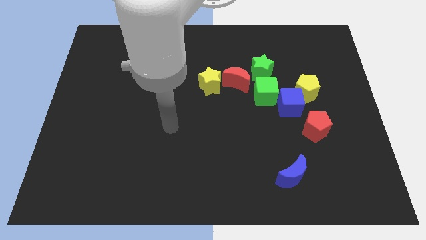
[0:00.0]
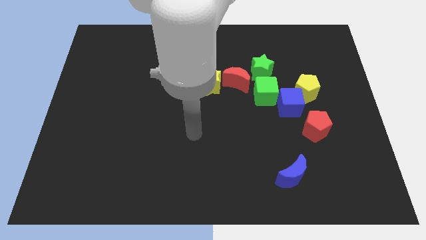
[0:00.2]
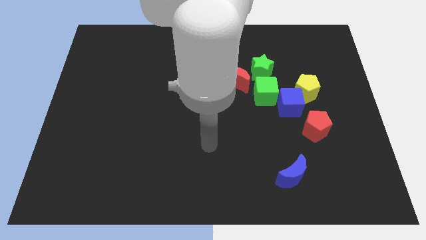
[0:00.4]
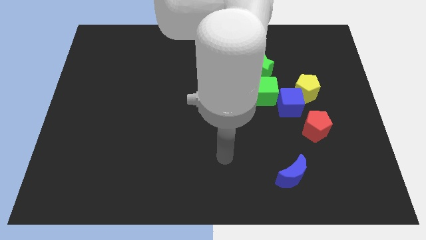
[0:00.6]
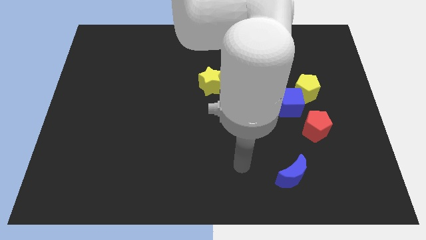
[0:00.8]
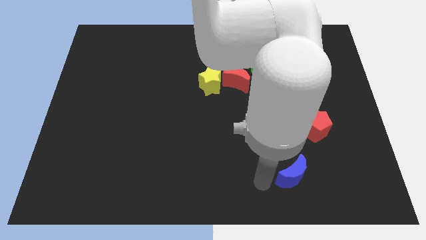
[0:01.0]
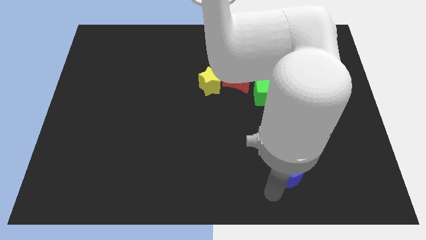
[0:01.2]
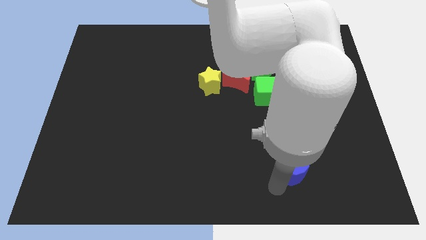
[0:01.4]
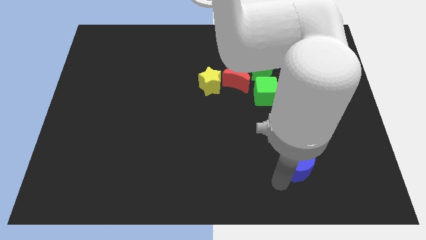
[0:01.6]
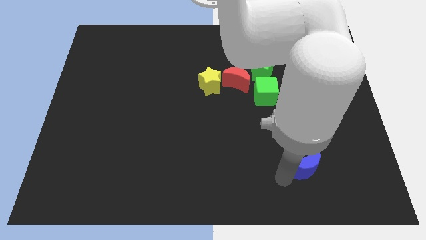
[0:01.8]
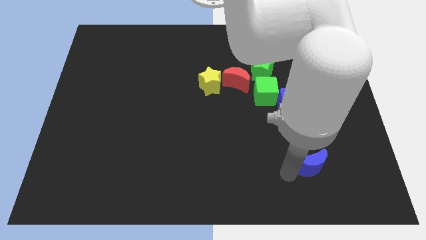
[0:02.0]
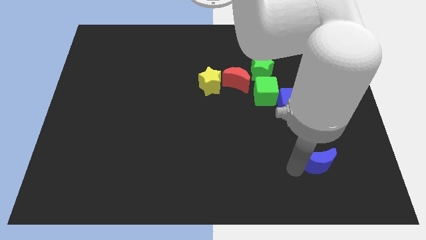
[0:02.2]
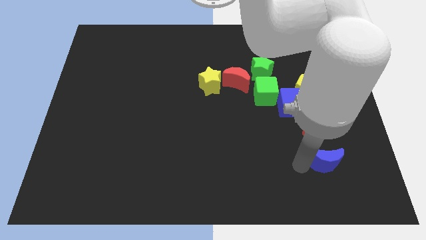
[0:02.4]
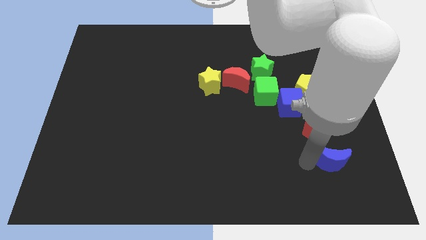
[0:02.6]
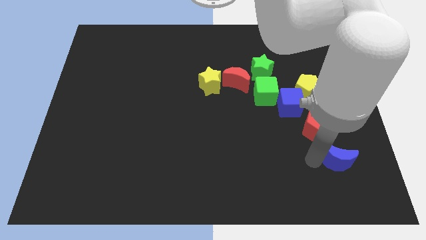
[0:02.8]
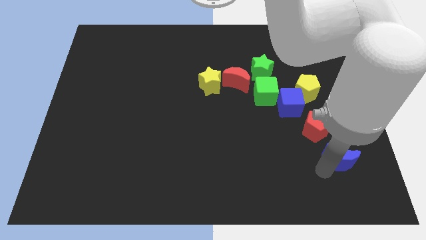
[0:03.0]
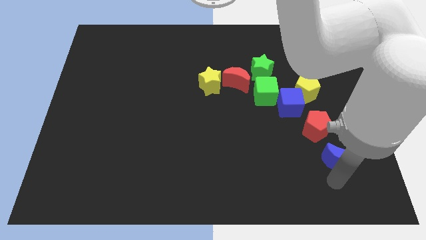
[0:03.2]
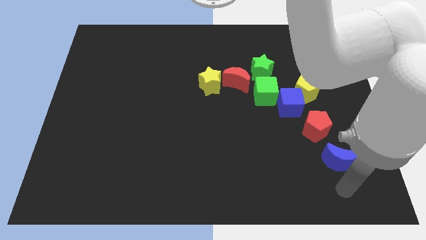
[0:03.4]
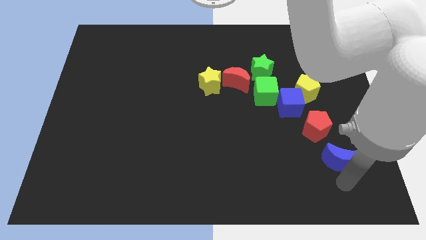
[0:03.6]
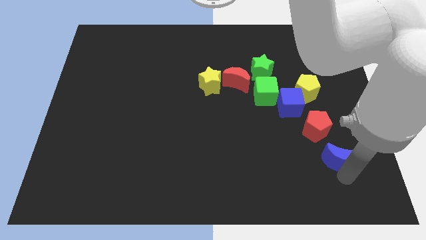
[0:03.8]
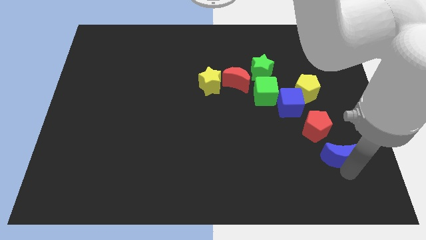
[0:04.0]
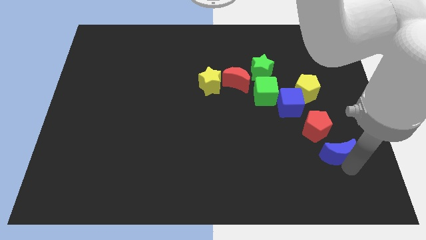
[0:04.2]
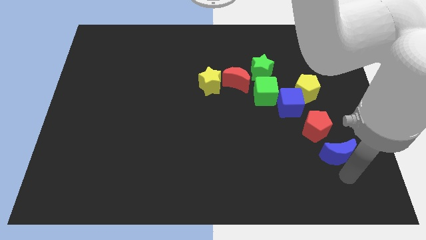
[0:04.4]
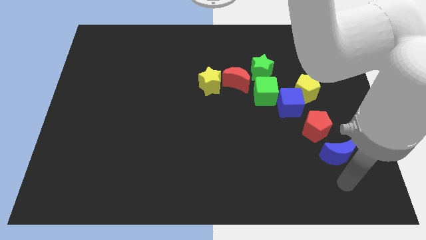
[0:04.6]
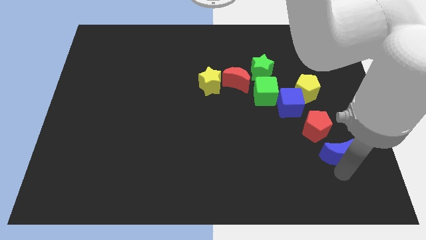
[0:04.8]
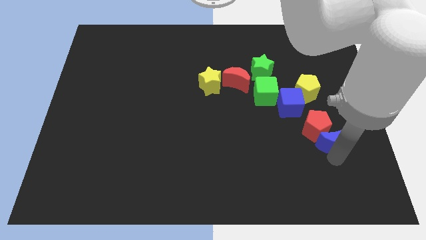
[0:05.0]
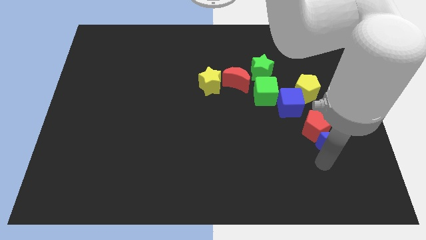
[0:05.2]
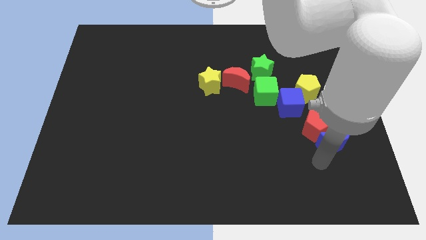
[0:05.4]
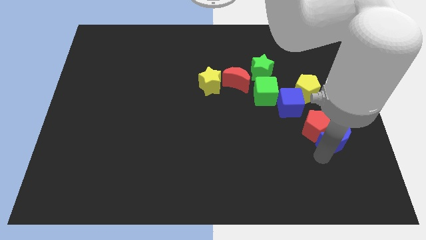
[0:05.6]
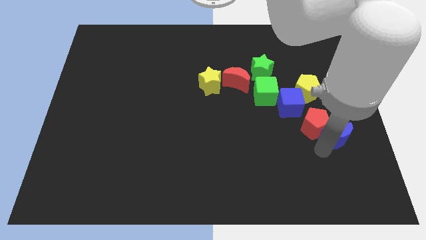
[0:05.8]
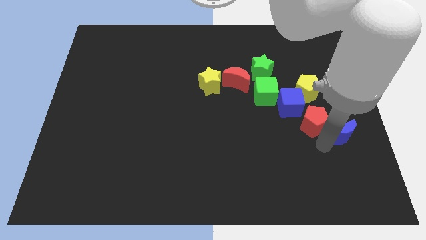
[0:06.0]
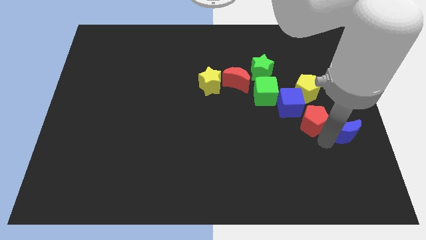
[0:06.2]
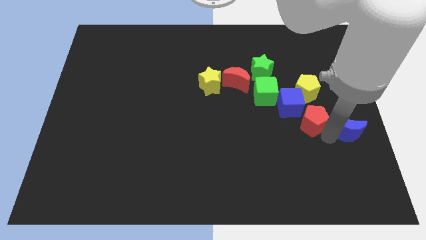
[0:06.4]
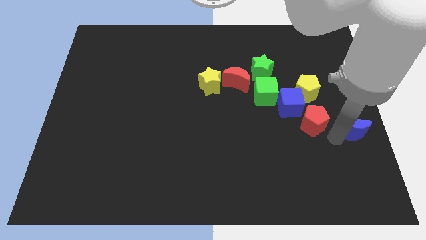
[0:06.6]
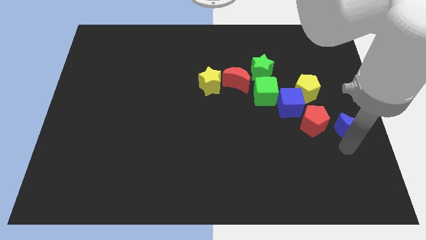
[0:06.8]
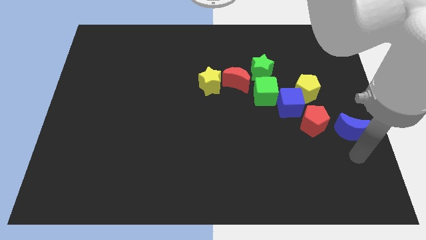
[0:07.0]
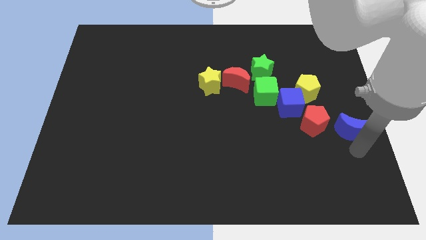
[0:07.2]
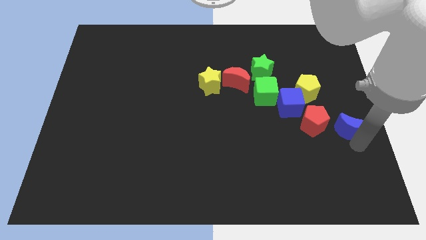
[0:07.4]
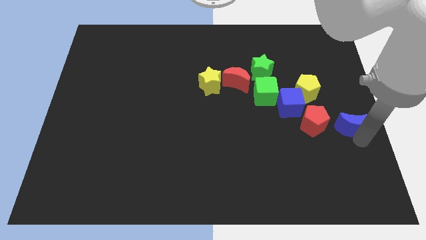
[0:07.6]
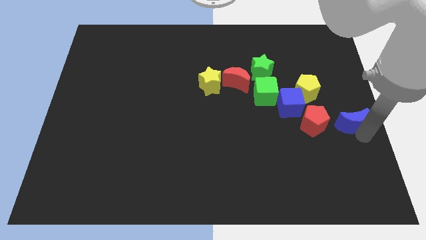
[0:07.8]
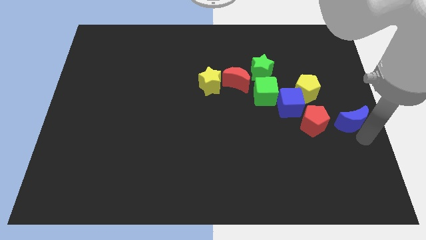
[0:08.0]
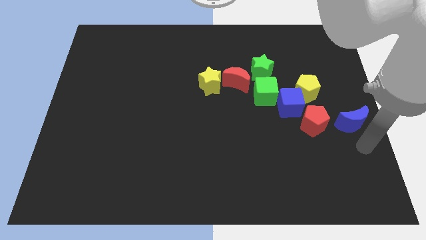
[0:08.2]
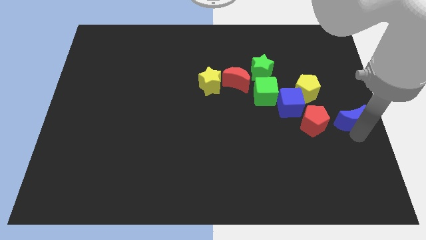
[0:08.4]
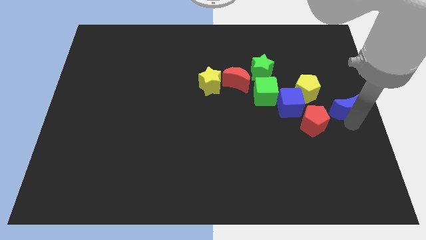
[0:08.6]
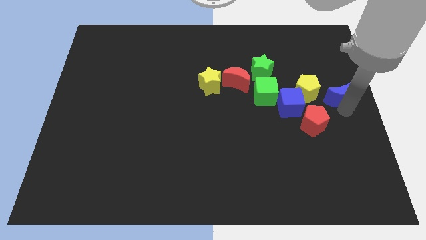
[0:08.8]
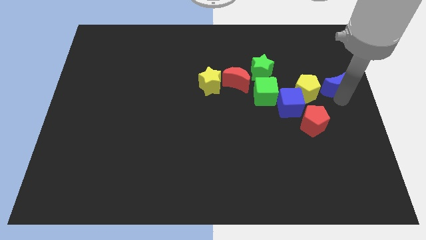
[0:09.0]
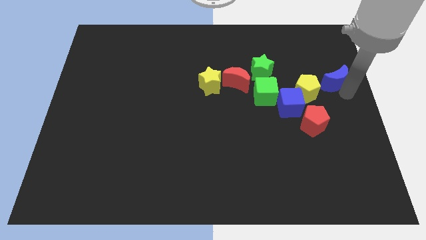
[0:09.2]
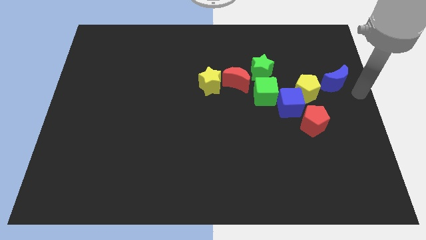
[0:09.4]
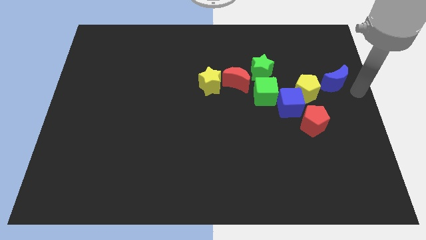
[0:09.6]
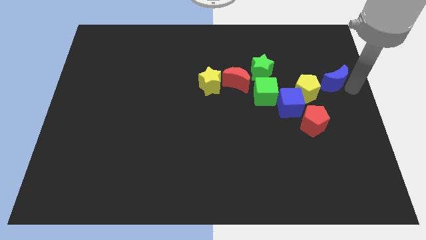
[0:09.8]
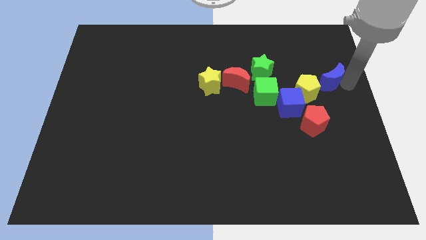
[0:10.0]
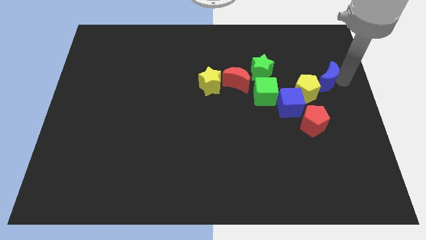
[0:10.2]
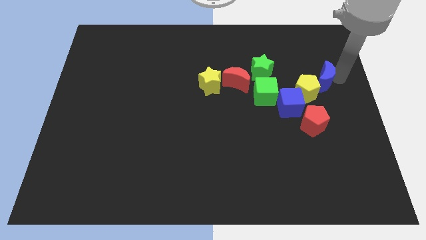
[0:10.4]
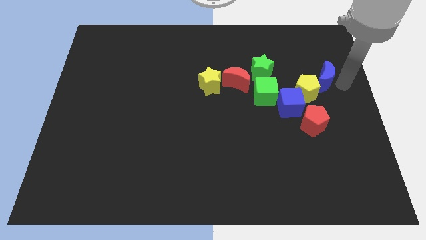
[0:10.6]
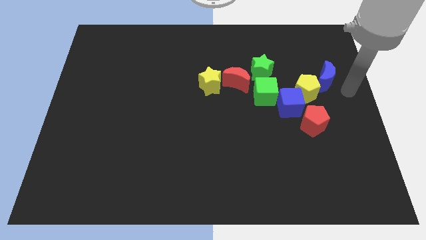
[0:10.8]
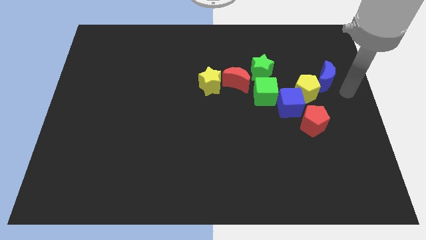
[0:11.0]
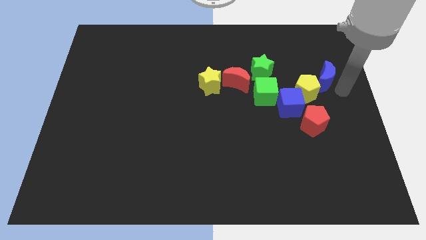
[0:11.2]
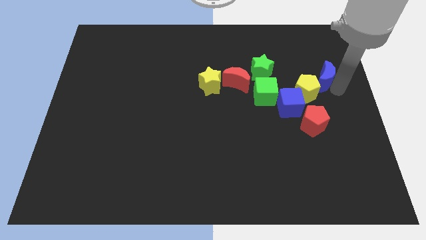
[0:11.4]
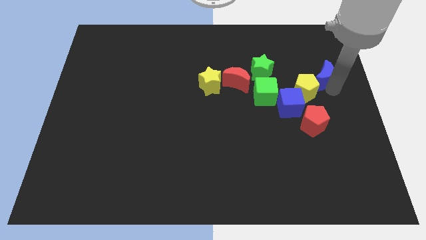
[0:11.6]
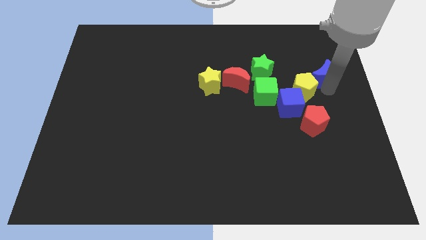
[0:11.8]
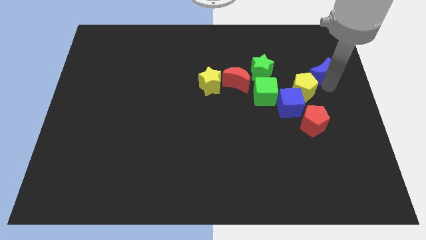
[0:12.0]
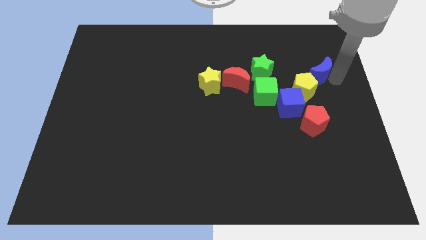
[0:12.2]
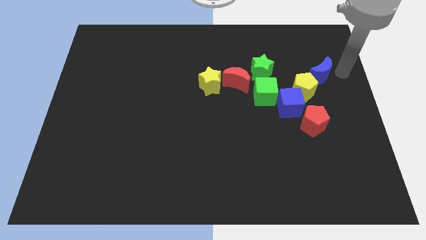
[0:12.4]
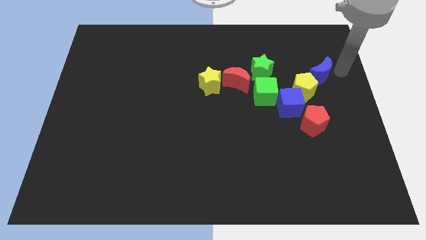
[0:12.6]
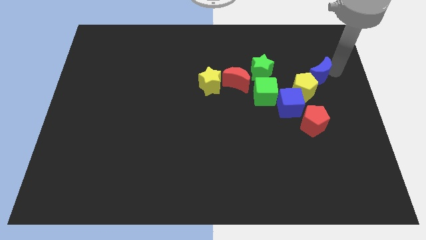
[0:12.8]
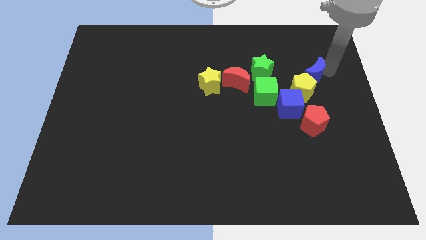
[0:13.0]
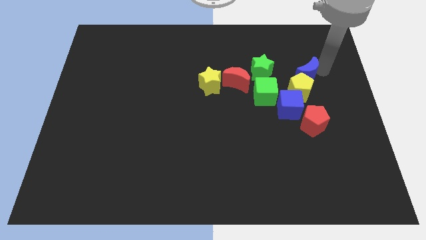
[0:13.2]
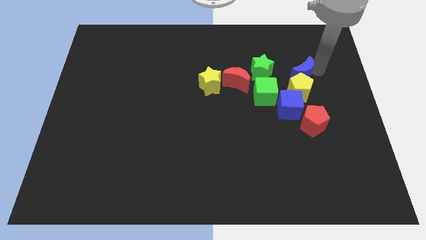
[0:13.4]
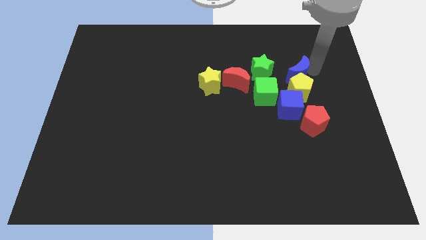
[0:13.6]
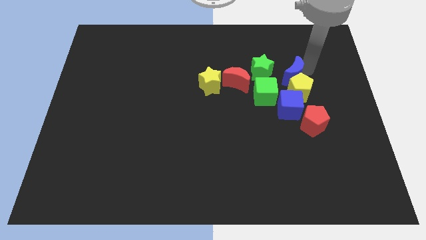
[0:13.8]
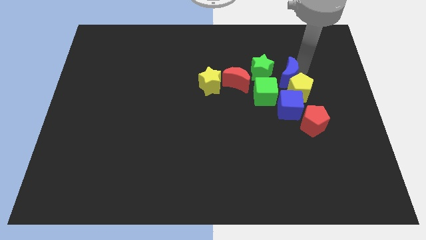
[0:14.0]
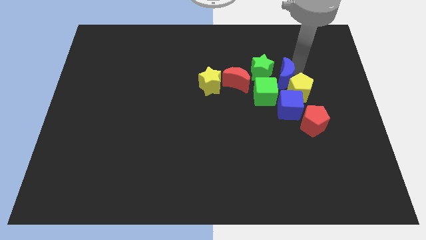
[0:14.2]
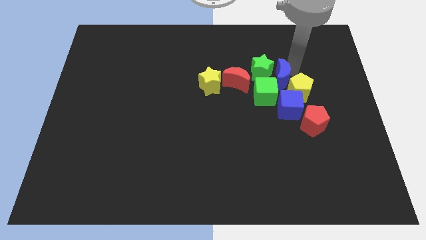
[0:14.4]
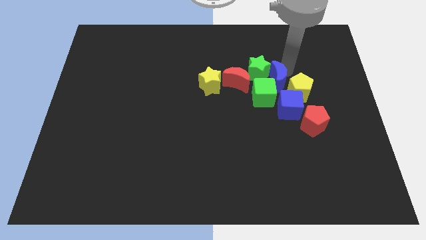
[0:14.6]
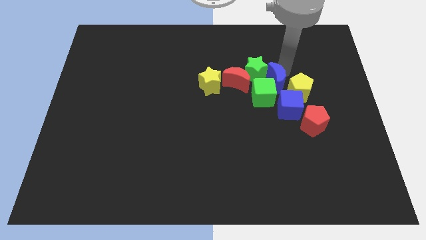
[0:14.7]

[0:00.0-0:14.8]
push the blue moon to the right of the yellow star
